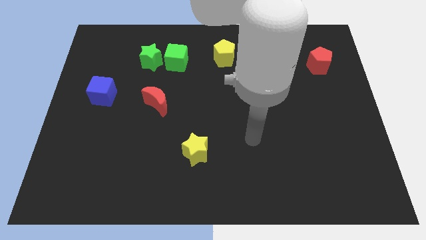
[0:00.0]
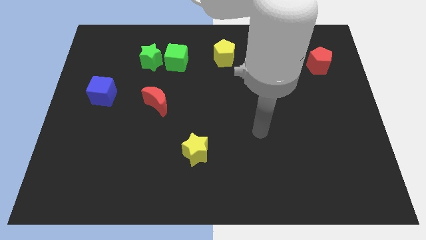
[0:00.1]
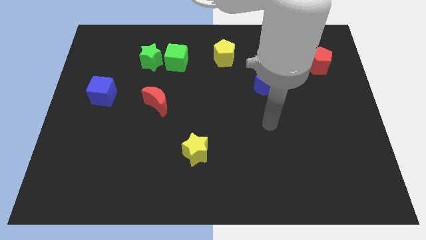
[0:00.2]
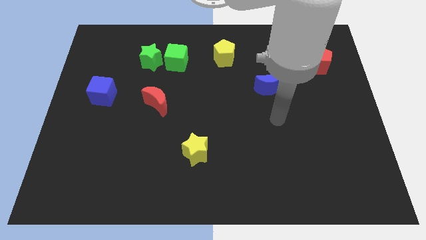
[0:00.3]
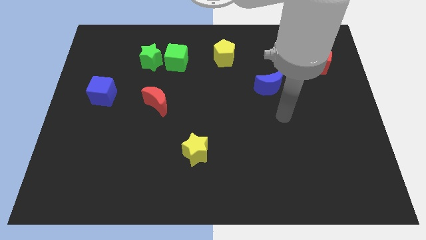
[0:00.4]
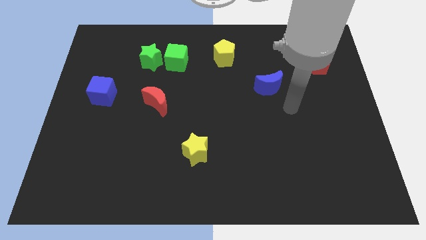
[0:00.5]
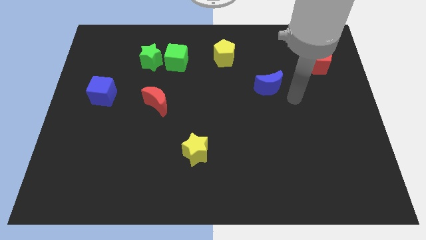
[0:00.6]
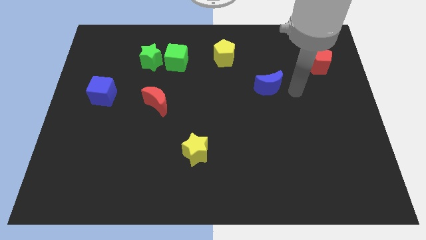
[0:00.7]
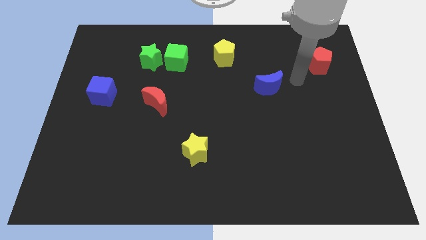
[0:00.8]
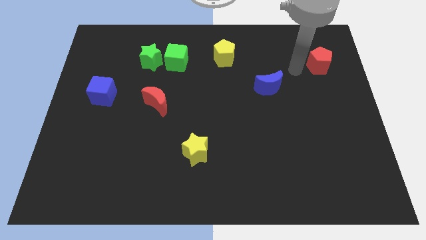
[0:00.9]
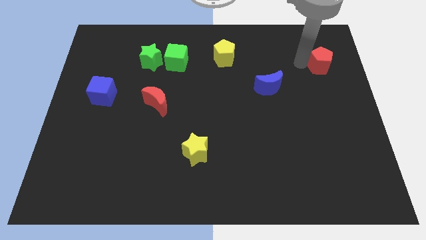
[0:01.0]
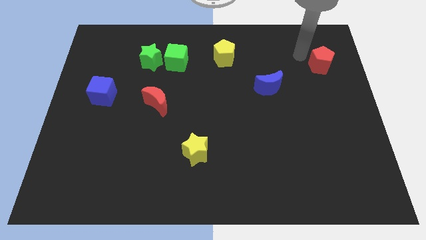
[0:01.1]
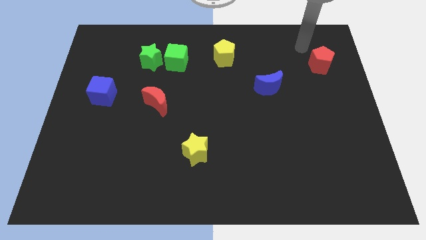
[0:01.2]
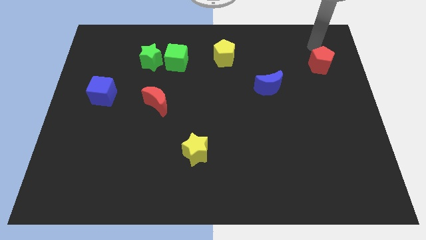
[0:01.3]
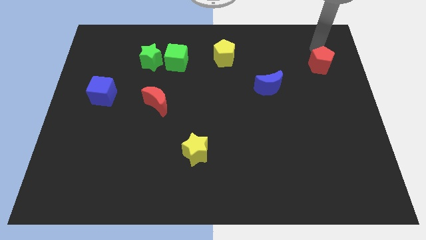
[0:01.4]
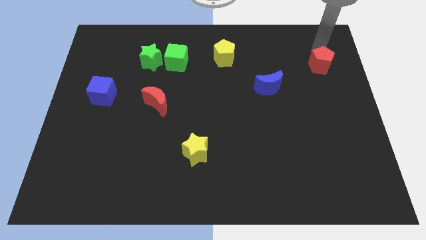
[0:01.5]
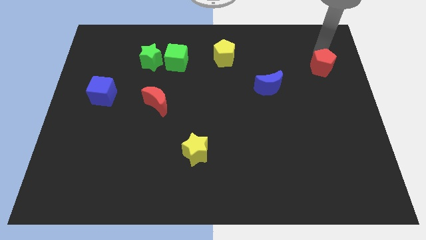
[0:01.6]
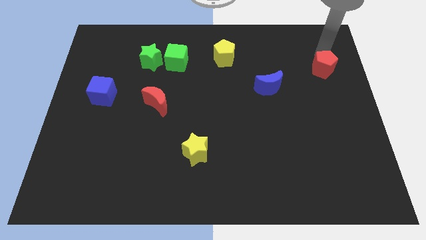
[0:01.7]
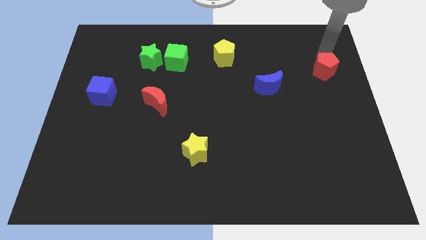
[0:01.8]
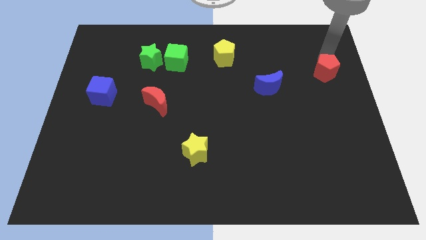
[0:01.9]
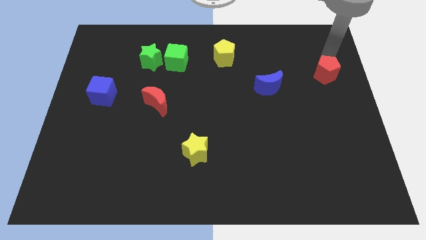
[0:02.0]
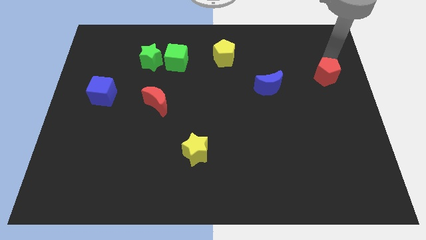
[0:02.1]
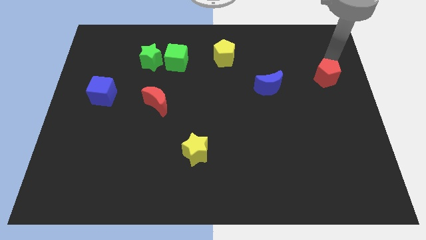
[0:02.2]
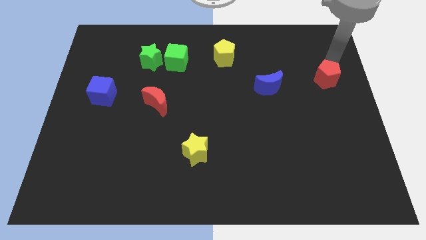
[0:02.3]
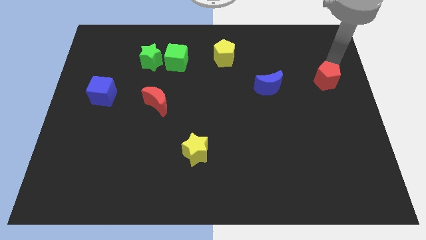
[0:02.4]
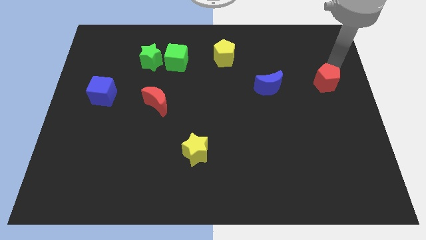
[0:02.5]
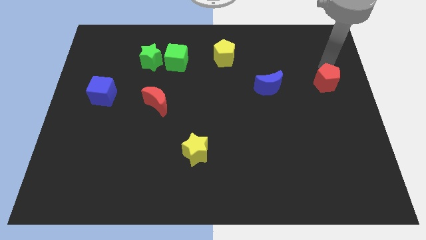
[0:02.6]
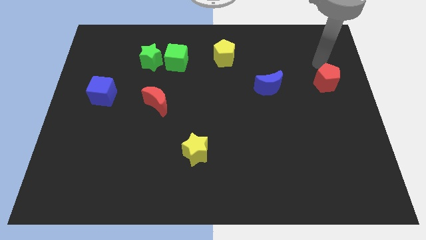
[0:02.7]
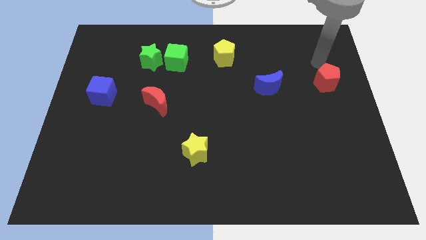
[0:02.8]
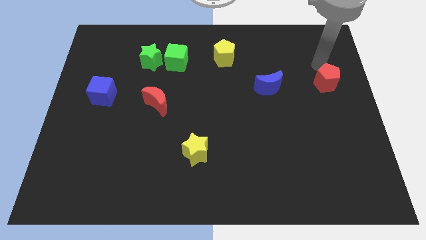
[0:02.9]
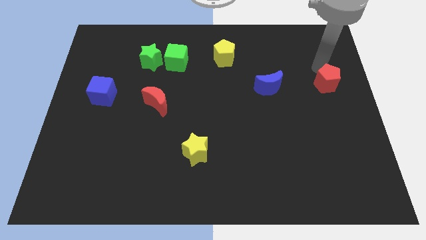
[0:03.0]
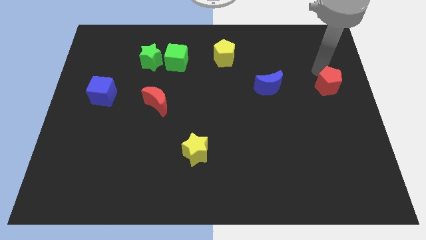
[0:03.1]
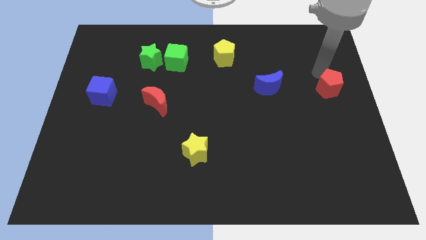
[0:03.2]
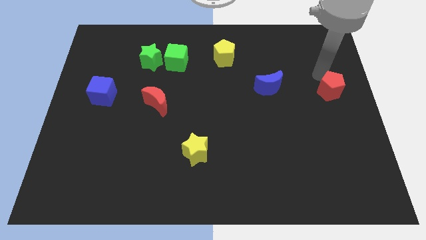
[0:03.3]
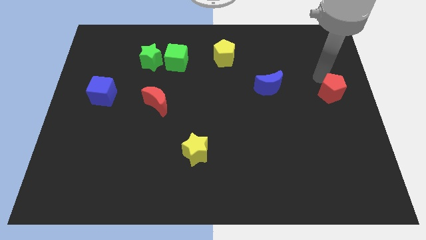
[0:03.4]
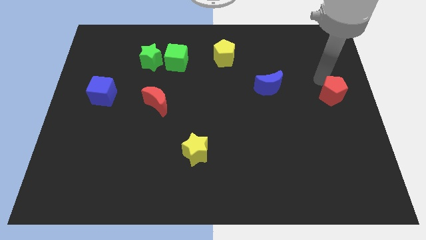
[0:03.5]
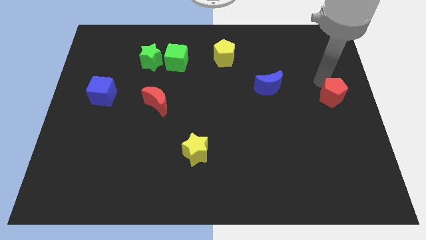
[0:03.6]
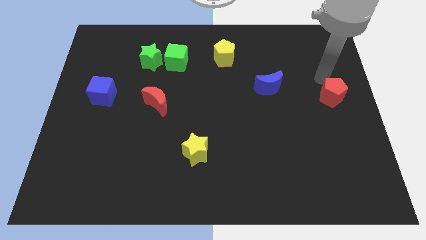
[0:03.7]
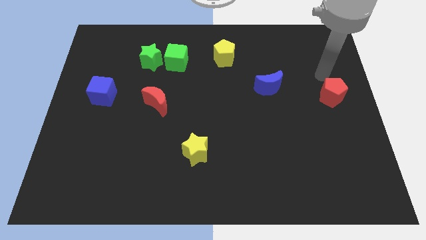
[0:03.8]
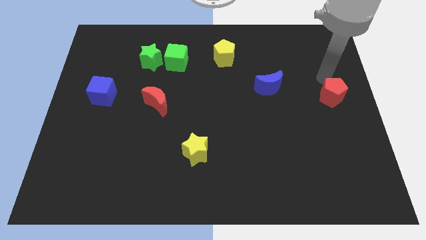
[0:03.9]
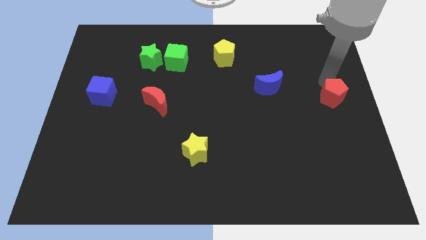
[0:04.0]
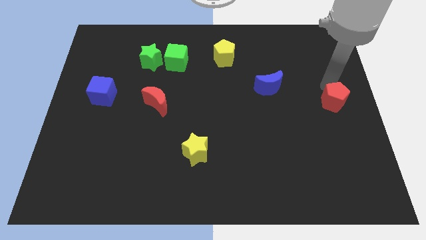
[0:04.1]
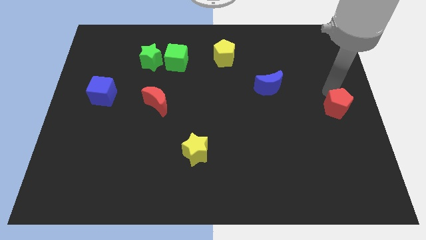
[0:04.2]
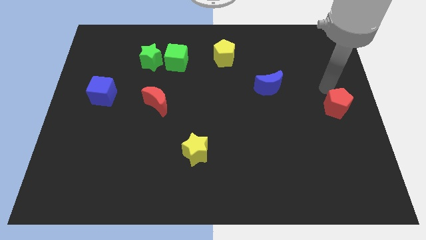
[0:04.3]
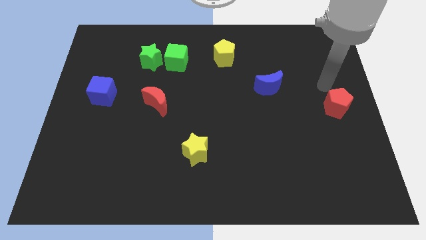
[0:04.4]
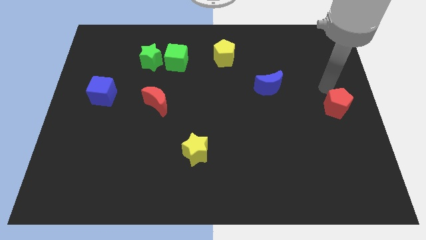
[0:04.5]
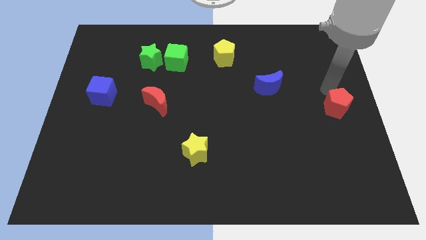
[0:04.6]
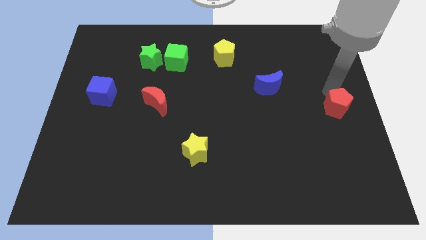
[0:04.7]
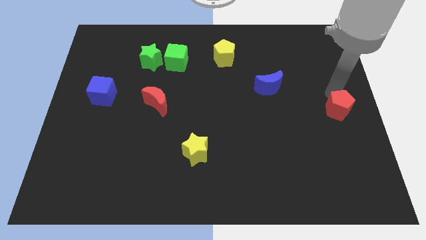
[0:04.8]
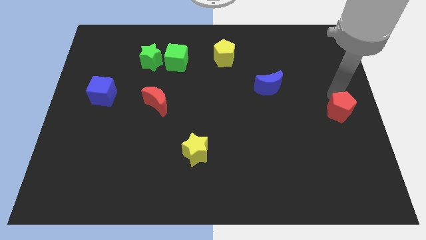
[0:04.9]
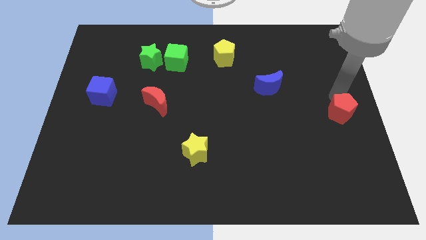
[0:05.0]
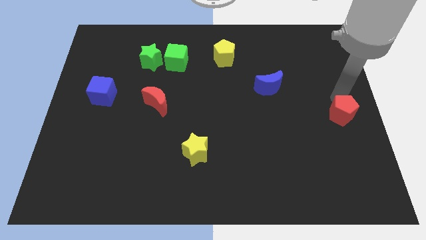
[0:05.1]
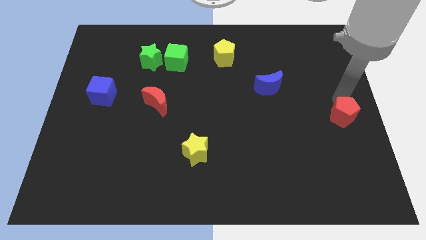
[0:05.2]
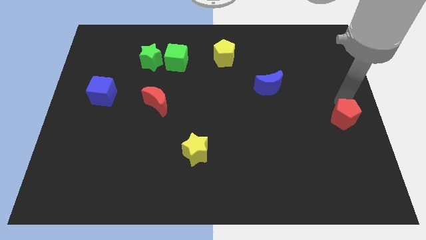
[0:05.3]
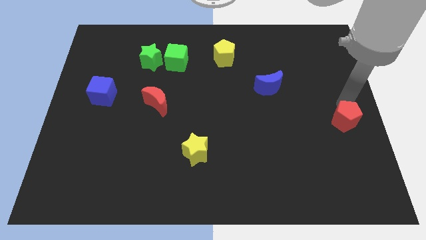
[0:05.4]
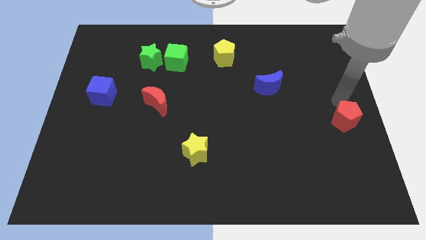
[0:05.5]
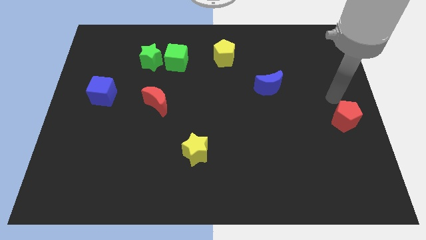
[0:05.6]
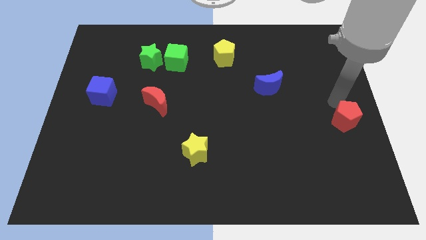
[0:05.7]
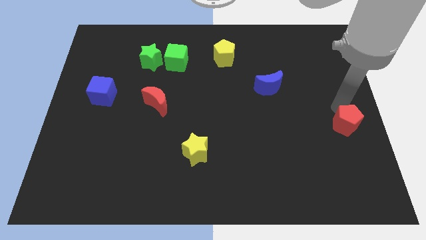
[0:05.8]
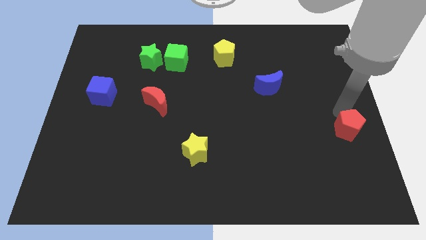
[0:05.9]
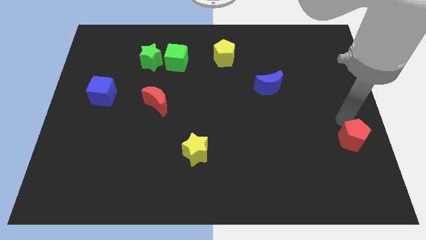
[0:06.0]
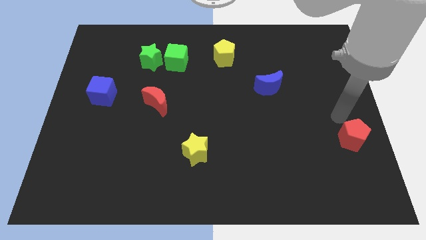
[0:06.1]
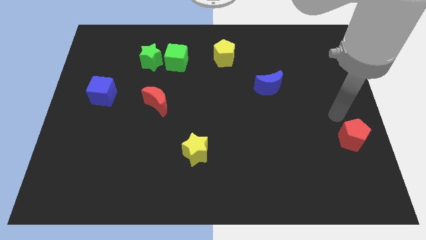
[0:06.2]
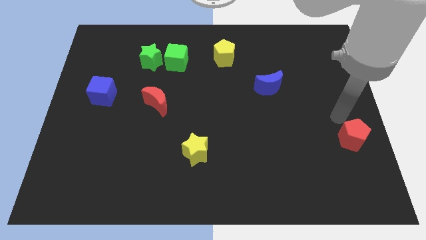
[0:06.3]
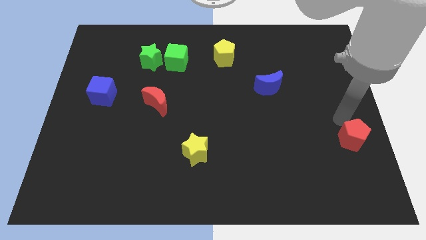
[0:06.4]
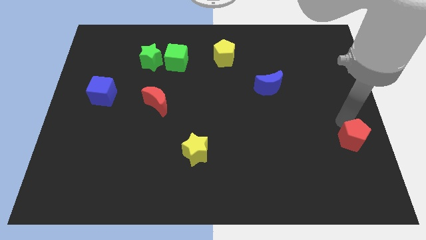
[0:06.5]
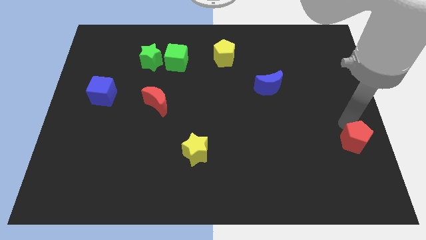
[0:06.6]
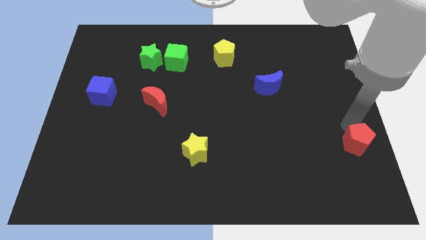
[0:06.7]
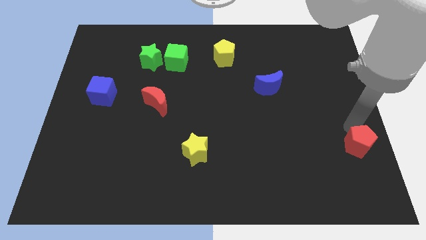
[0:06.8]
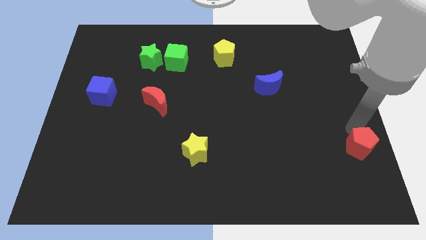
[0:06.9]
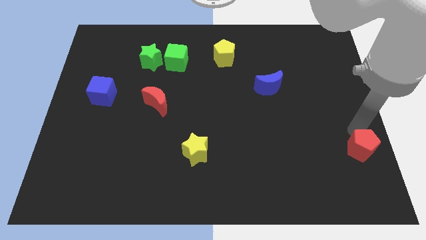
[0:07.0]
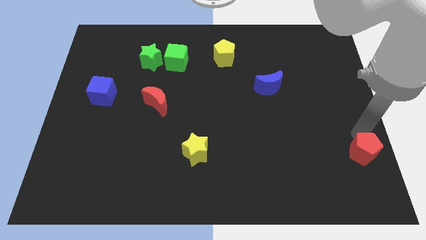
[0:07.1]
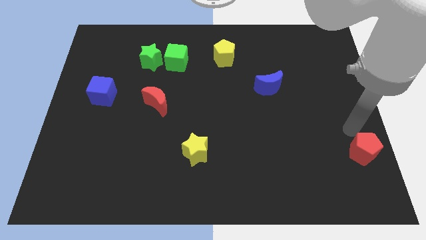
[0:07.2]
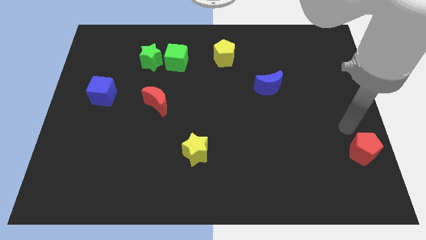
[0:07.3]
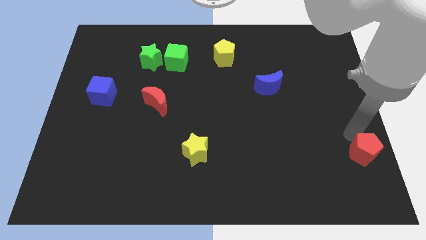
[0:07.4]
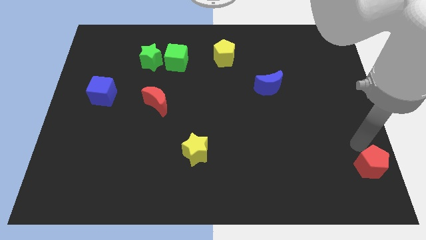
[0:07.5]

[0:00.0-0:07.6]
slide the red pentagon to the lower right corner

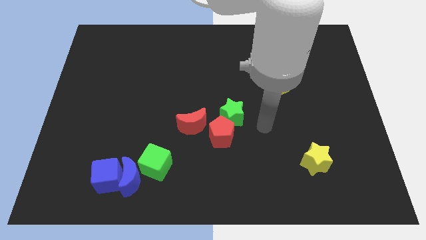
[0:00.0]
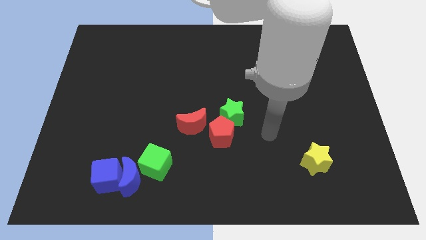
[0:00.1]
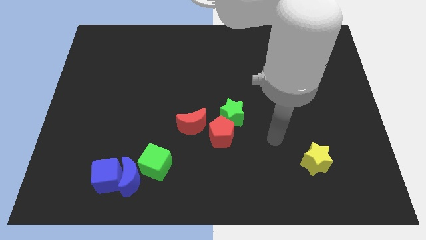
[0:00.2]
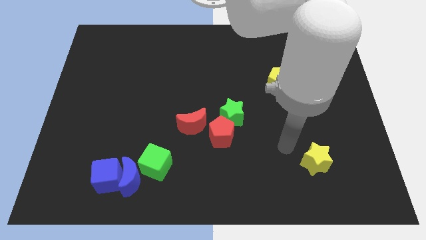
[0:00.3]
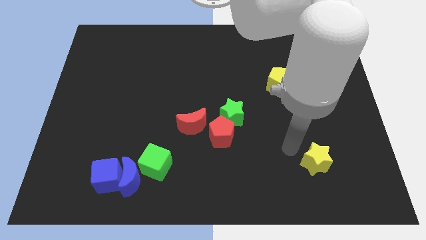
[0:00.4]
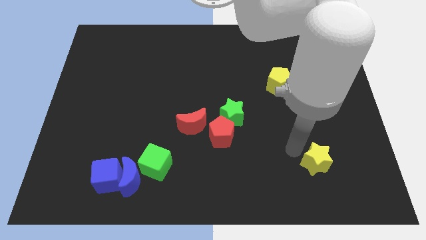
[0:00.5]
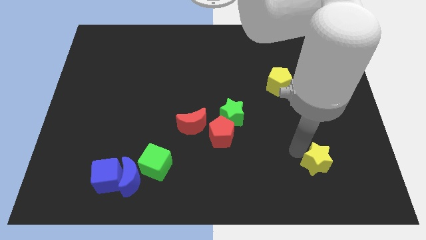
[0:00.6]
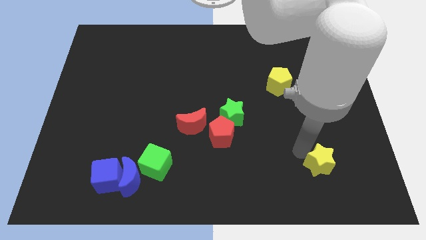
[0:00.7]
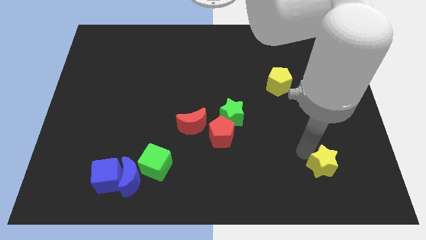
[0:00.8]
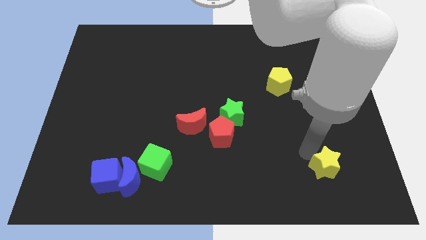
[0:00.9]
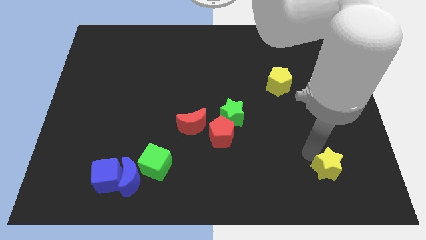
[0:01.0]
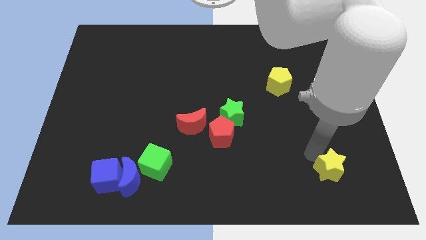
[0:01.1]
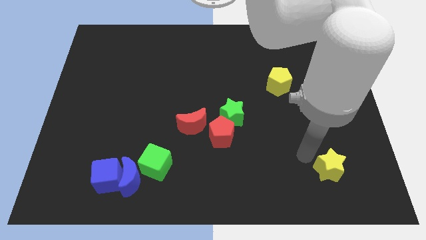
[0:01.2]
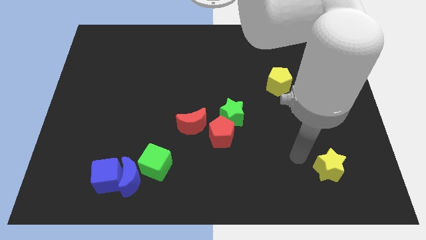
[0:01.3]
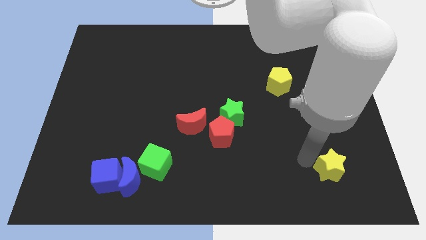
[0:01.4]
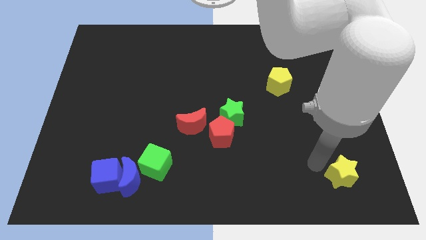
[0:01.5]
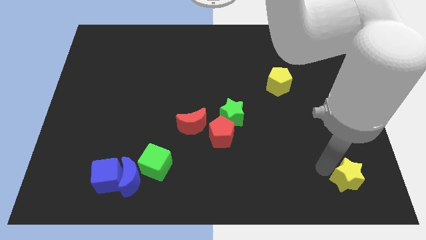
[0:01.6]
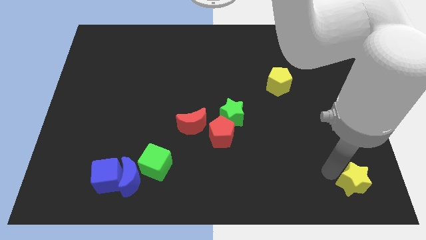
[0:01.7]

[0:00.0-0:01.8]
slide the yellow star to the bottom right of the board
